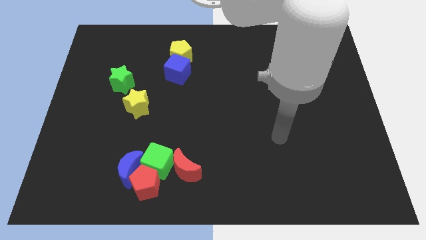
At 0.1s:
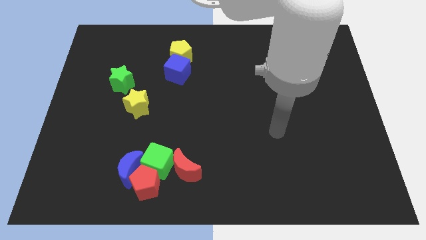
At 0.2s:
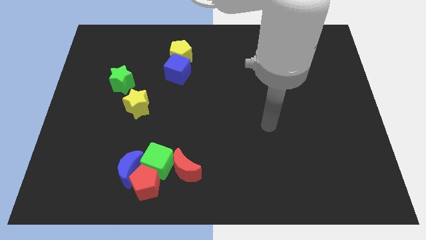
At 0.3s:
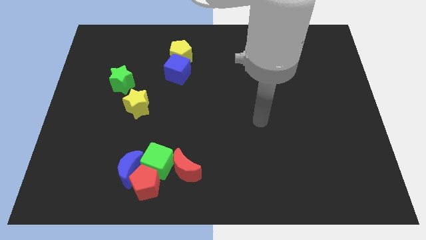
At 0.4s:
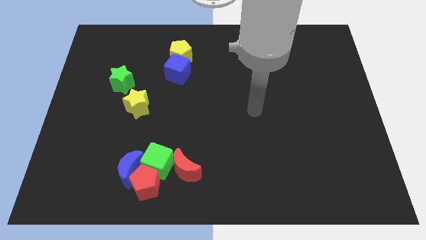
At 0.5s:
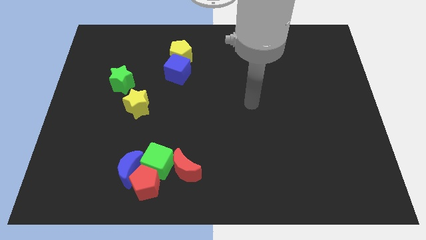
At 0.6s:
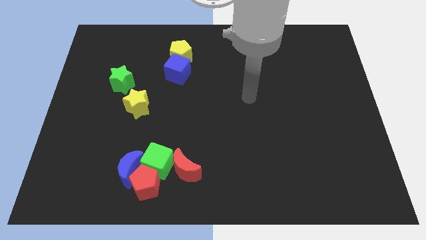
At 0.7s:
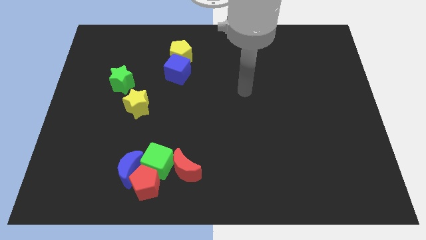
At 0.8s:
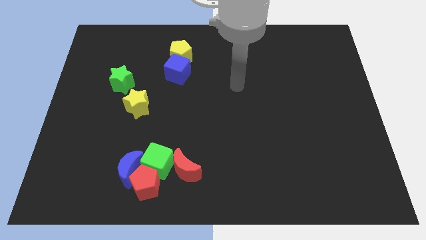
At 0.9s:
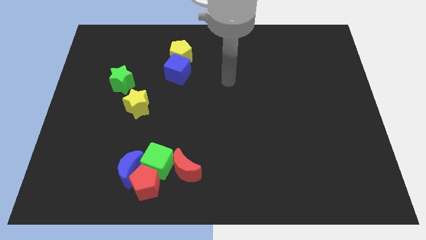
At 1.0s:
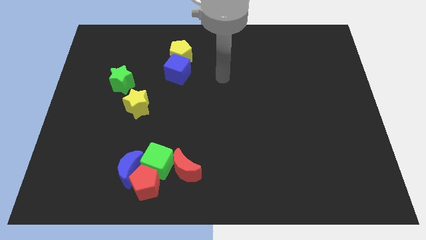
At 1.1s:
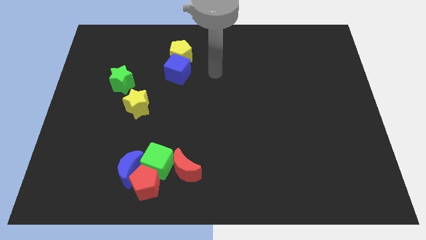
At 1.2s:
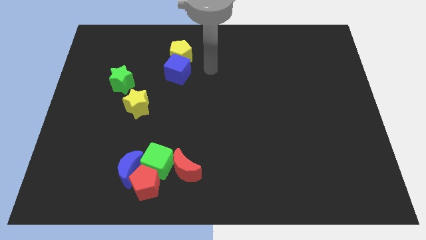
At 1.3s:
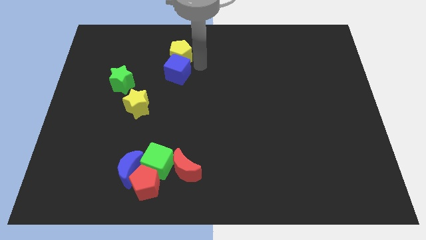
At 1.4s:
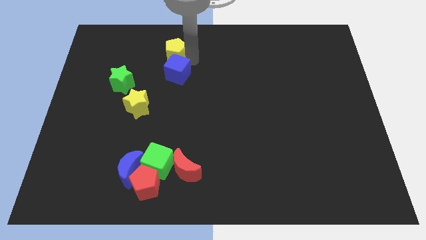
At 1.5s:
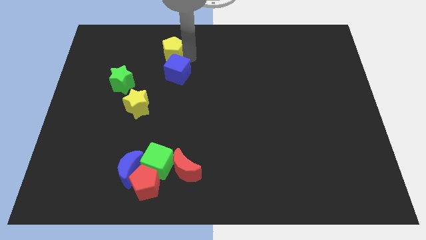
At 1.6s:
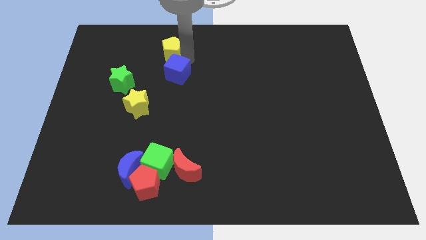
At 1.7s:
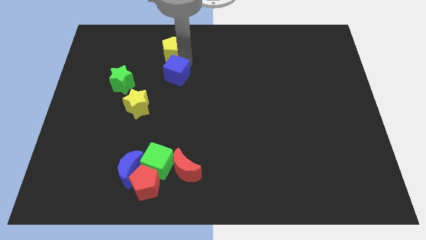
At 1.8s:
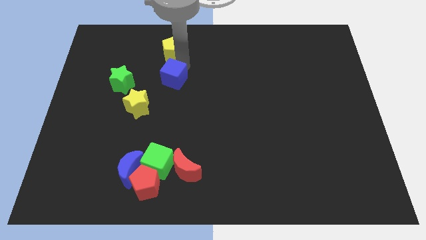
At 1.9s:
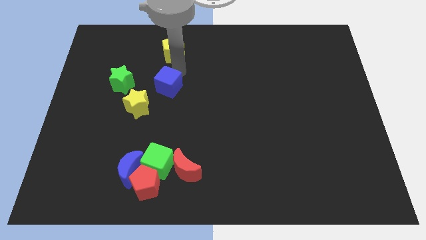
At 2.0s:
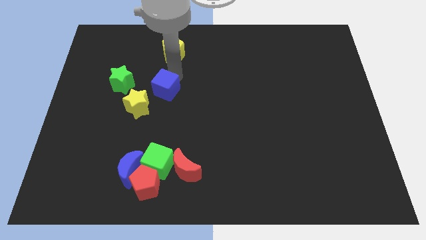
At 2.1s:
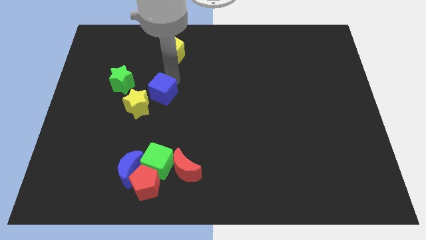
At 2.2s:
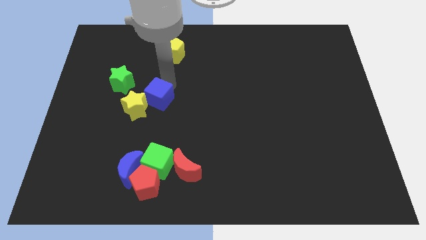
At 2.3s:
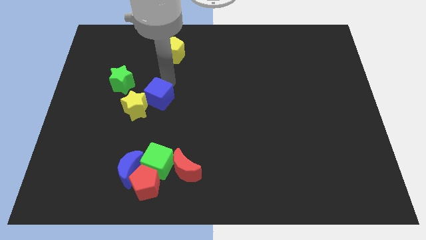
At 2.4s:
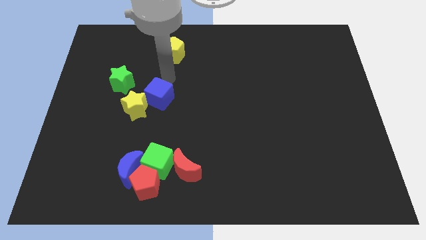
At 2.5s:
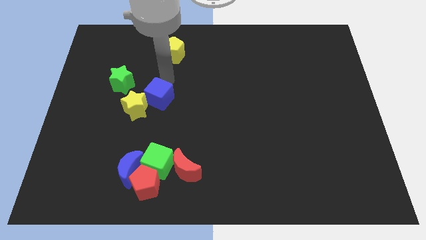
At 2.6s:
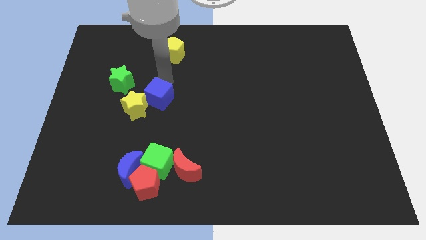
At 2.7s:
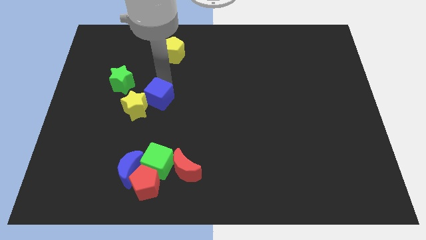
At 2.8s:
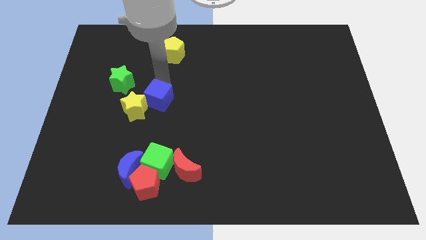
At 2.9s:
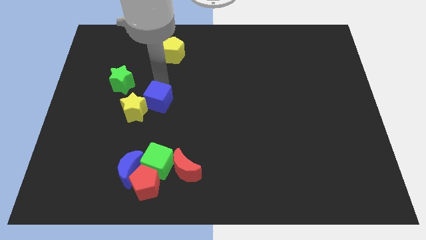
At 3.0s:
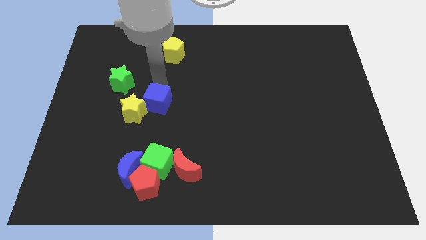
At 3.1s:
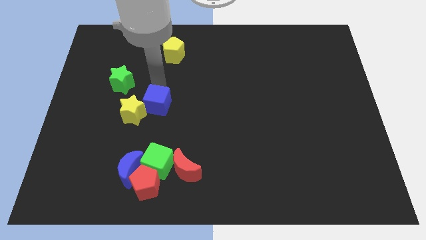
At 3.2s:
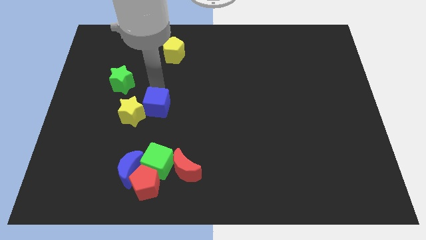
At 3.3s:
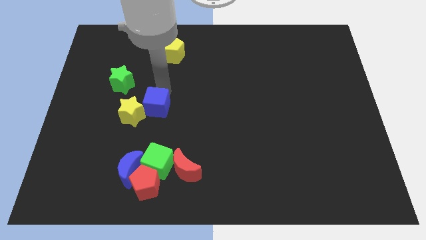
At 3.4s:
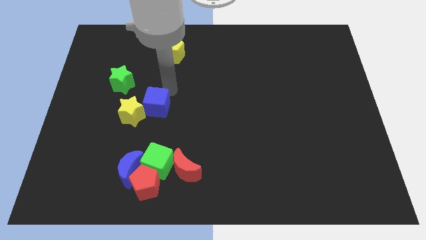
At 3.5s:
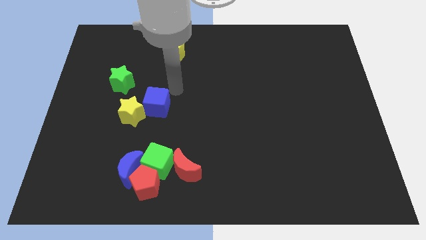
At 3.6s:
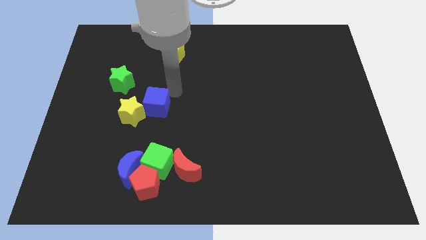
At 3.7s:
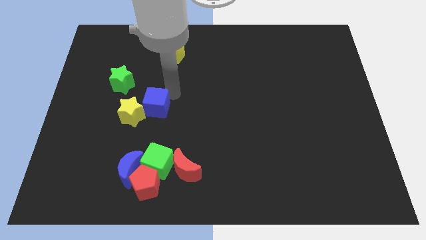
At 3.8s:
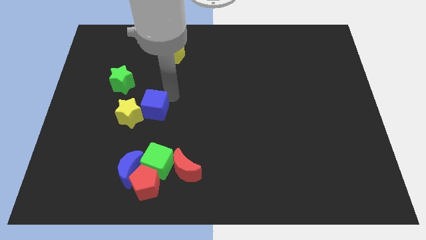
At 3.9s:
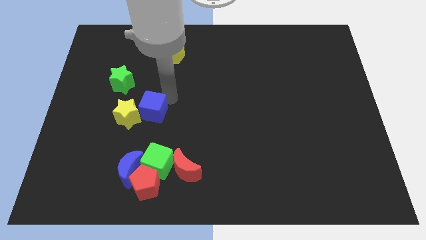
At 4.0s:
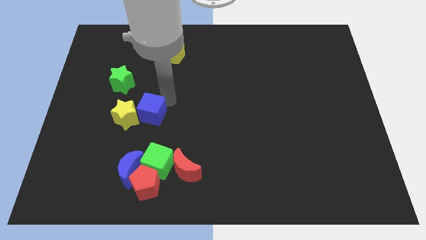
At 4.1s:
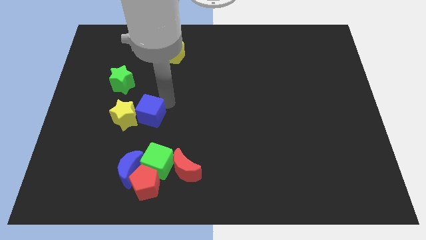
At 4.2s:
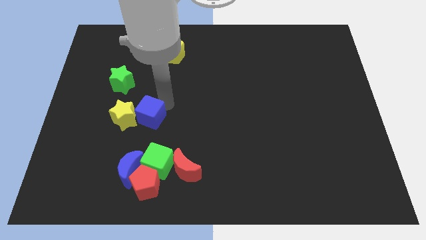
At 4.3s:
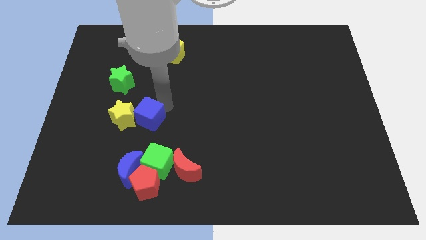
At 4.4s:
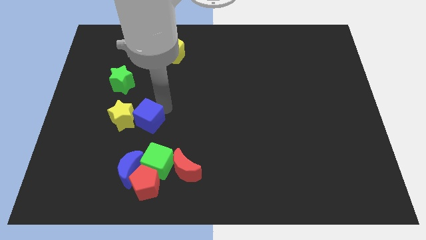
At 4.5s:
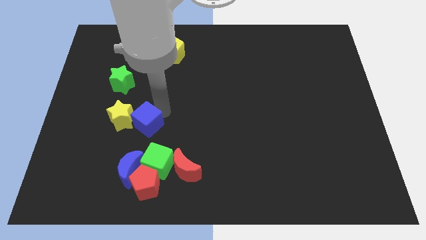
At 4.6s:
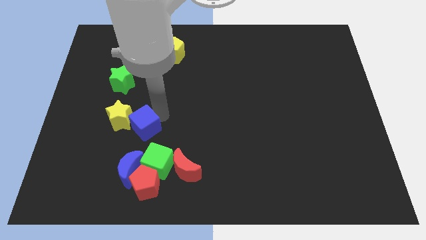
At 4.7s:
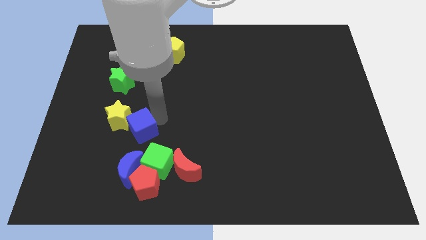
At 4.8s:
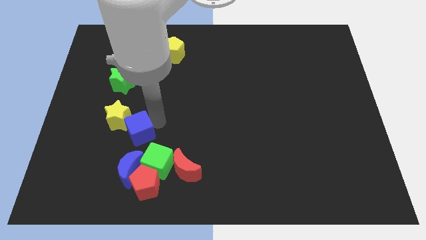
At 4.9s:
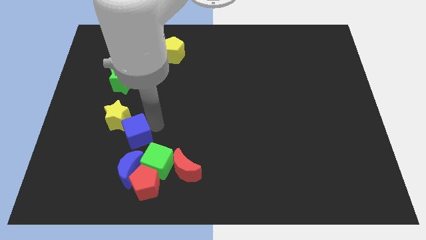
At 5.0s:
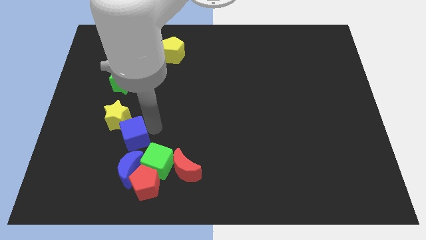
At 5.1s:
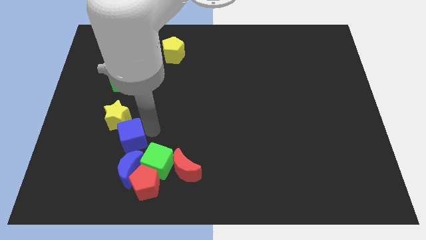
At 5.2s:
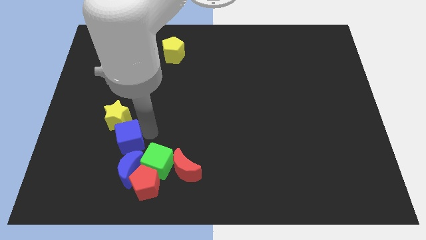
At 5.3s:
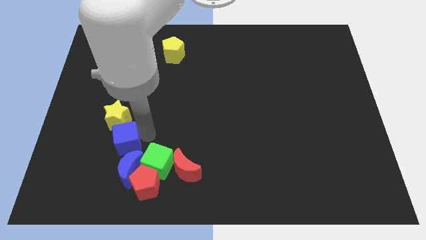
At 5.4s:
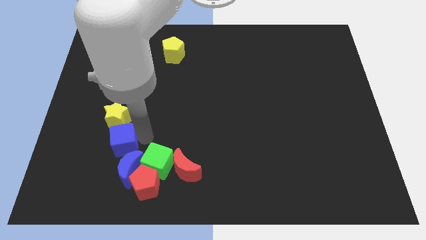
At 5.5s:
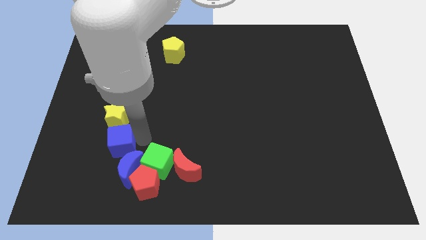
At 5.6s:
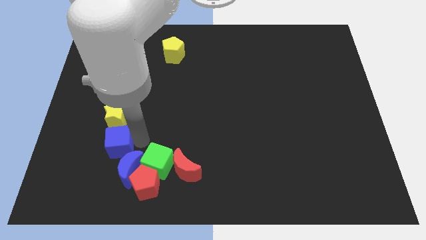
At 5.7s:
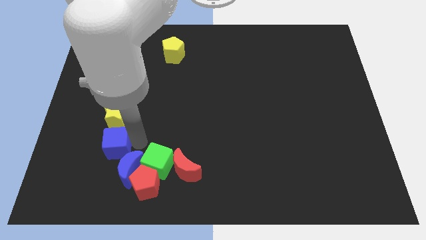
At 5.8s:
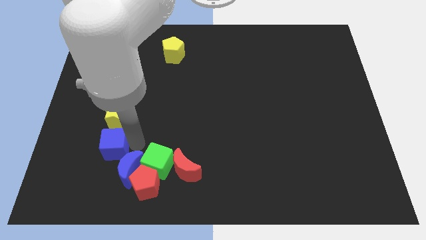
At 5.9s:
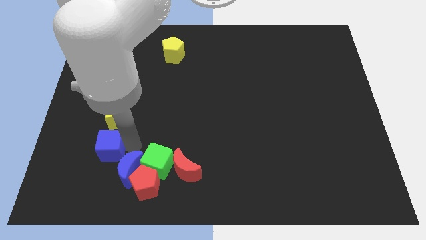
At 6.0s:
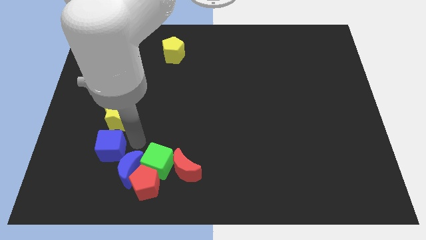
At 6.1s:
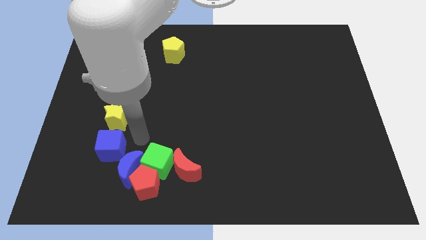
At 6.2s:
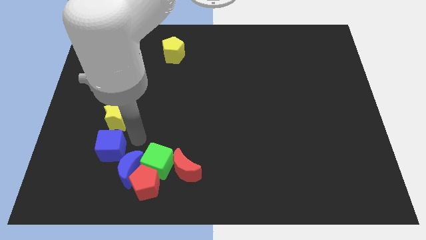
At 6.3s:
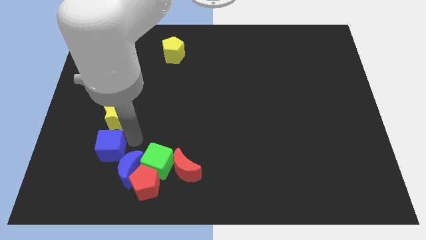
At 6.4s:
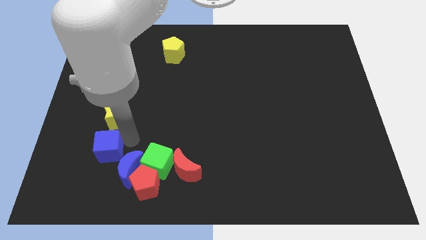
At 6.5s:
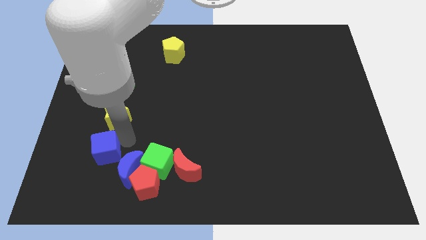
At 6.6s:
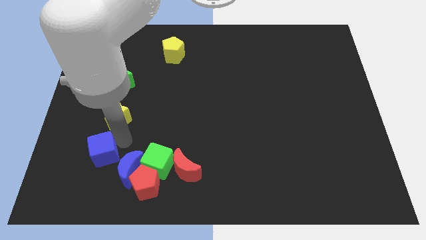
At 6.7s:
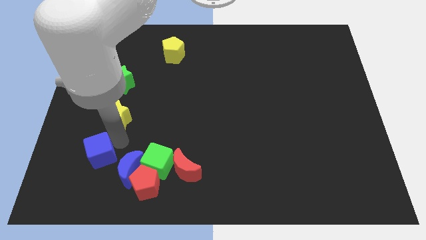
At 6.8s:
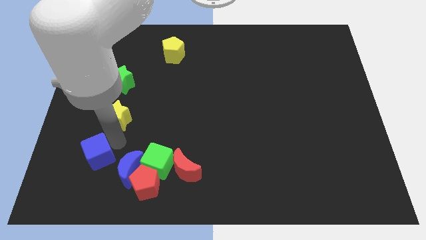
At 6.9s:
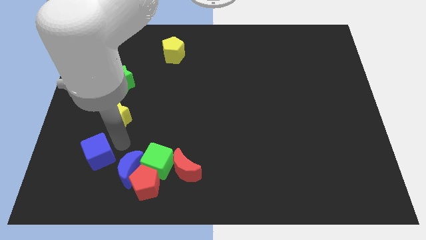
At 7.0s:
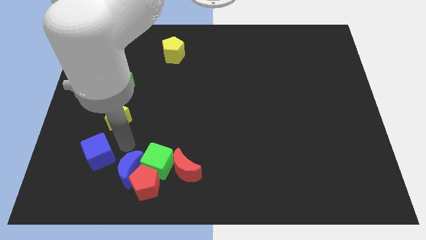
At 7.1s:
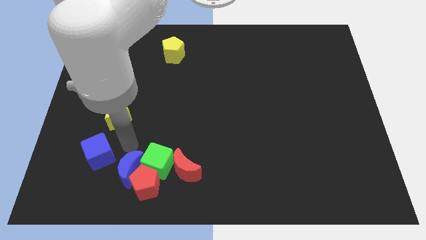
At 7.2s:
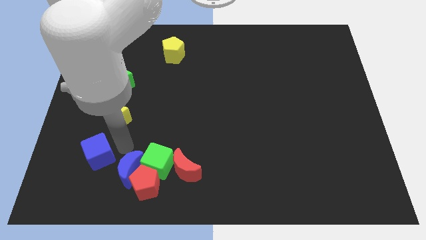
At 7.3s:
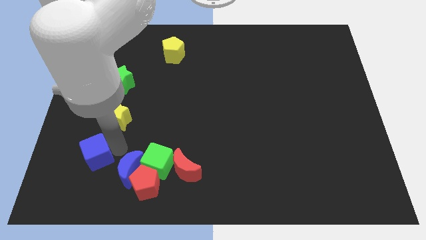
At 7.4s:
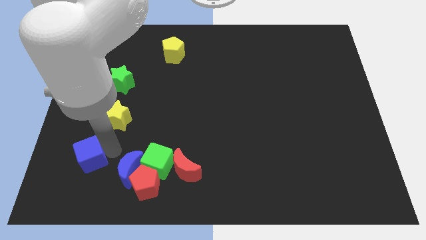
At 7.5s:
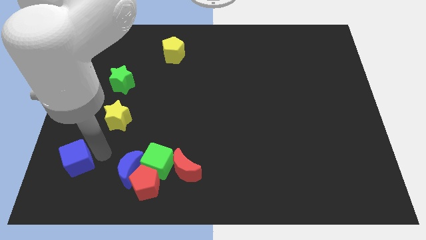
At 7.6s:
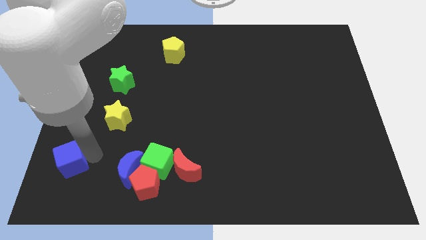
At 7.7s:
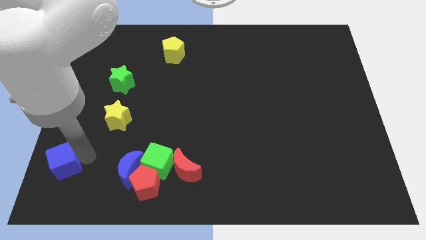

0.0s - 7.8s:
push the blue cube to the bottom left of the board
